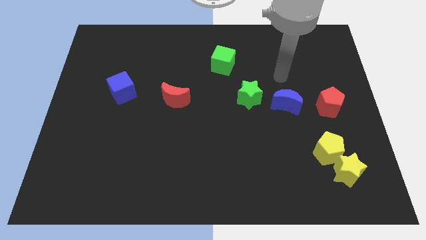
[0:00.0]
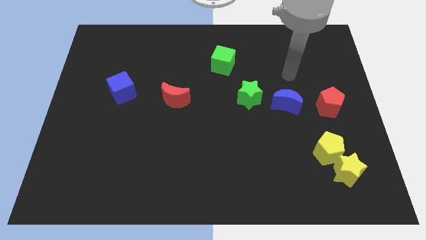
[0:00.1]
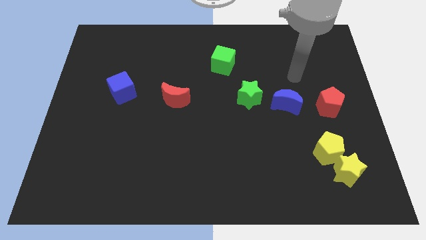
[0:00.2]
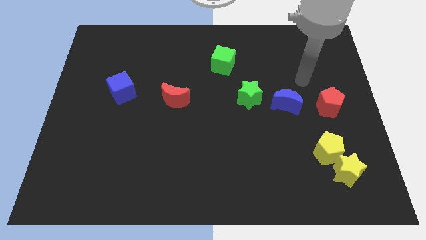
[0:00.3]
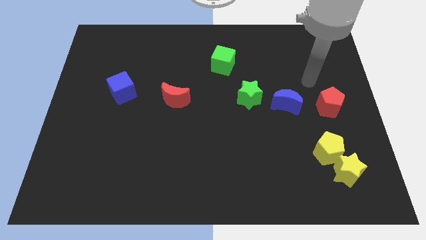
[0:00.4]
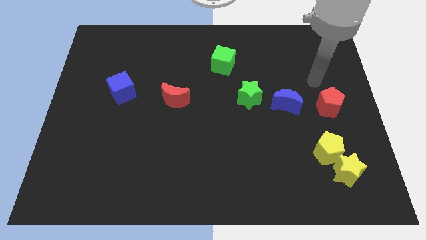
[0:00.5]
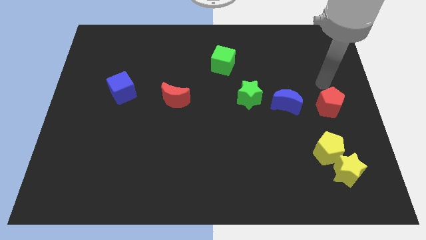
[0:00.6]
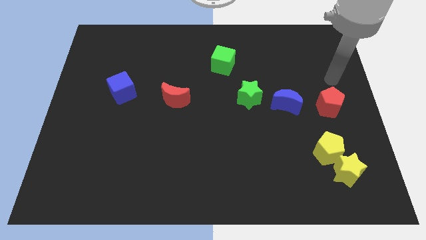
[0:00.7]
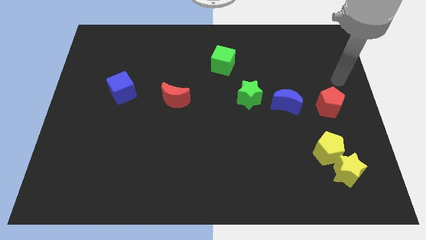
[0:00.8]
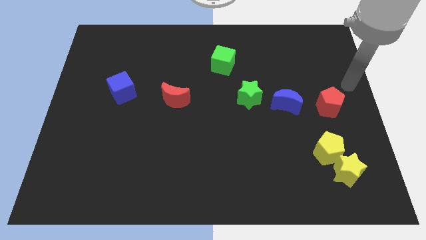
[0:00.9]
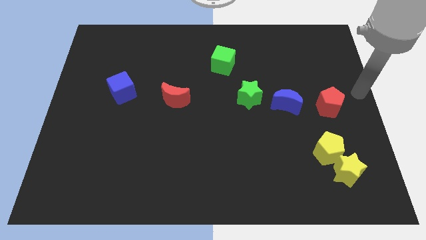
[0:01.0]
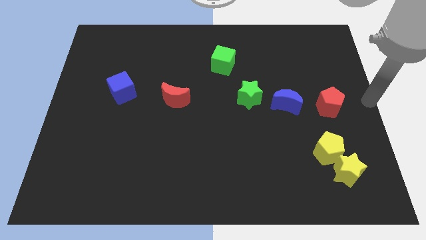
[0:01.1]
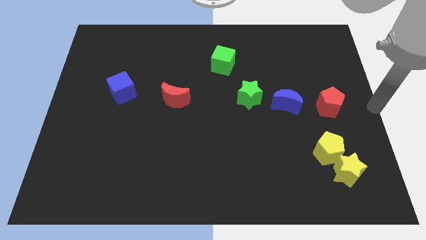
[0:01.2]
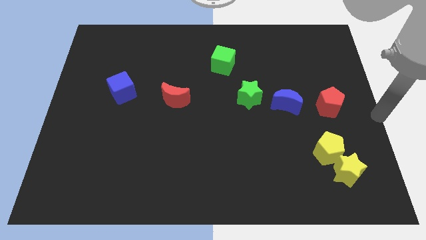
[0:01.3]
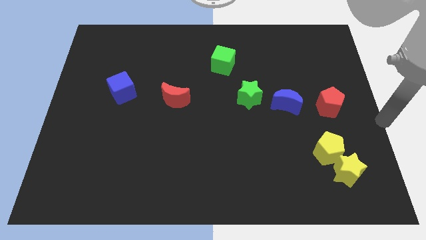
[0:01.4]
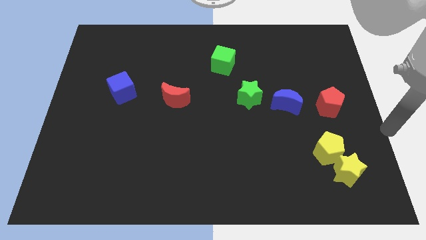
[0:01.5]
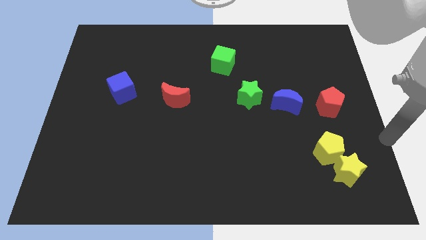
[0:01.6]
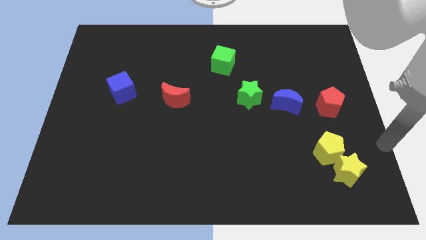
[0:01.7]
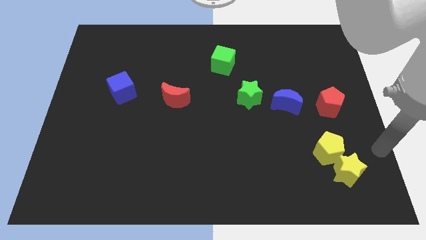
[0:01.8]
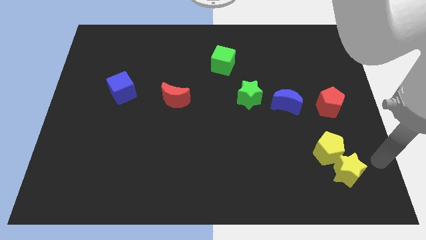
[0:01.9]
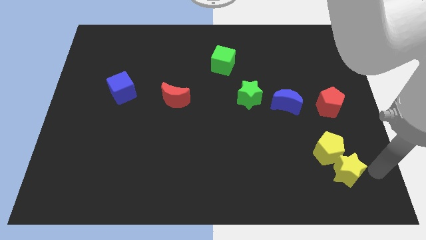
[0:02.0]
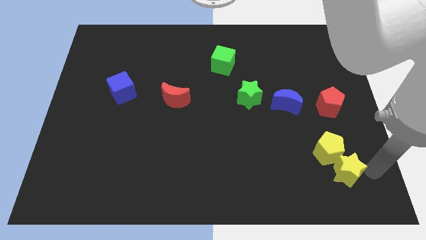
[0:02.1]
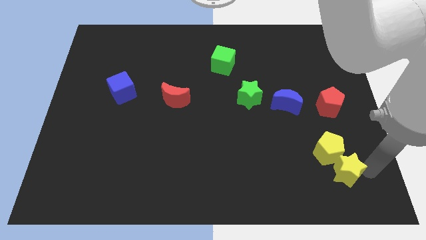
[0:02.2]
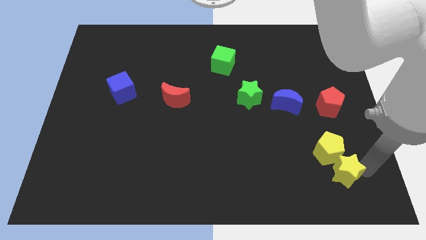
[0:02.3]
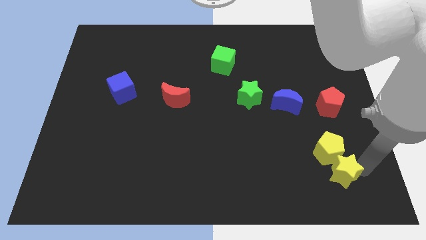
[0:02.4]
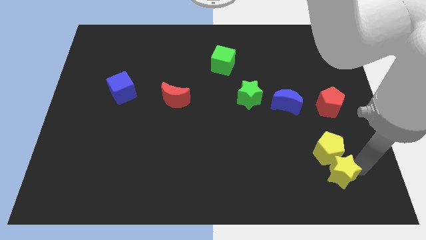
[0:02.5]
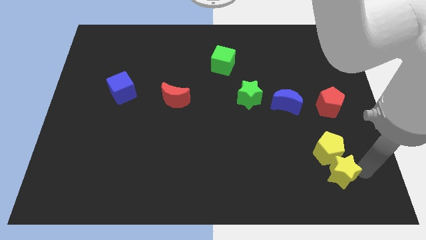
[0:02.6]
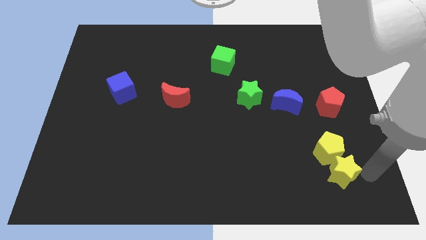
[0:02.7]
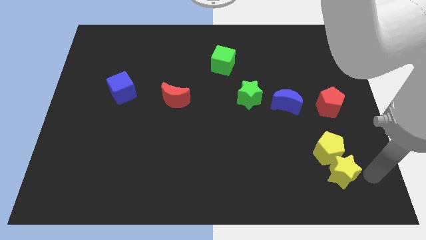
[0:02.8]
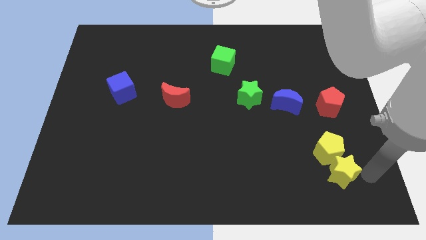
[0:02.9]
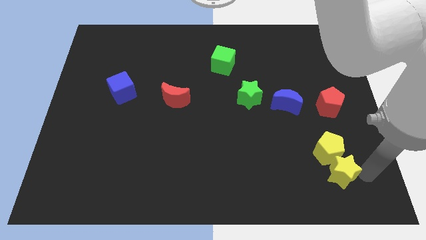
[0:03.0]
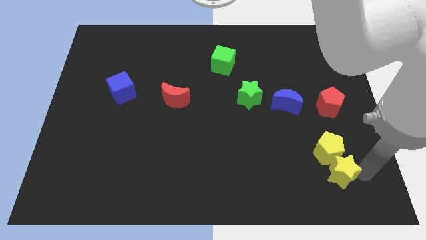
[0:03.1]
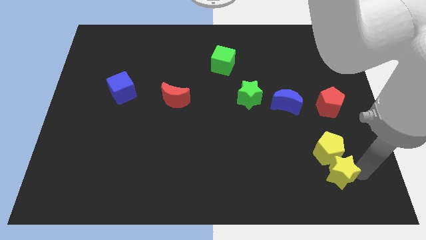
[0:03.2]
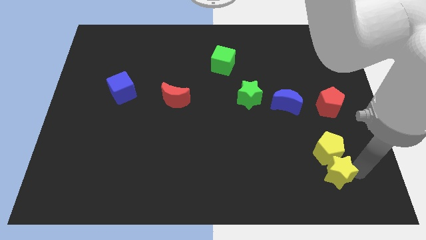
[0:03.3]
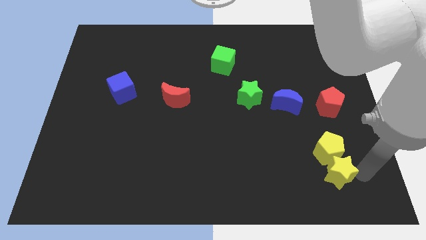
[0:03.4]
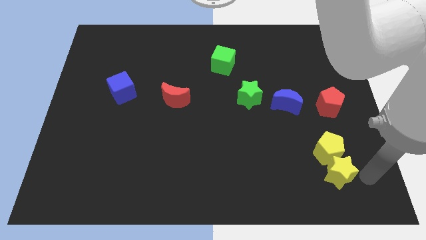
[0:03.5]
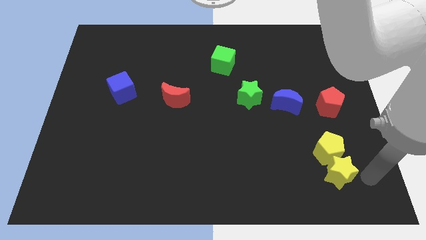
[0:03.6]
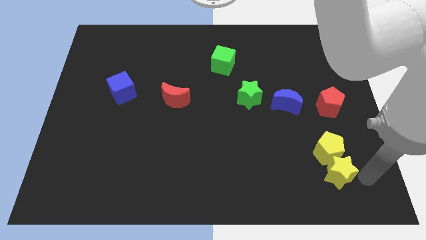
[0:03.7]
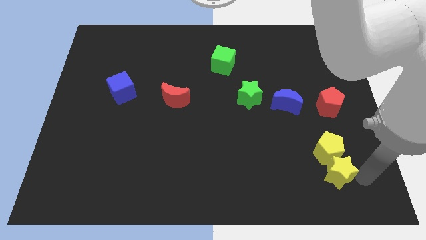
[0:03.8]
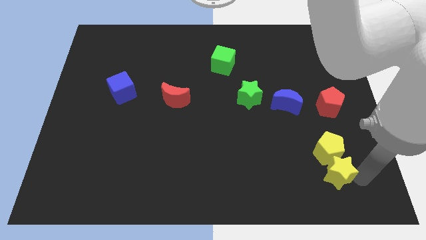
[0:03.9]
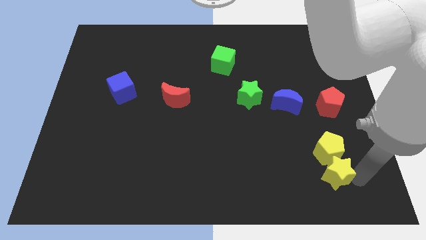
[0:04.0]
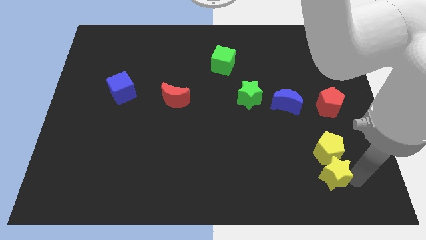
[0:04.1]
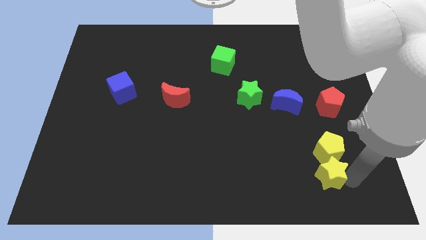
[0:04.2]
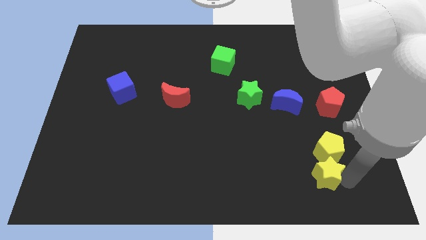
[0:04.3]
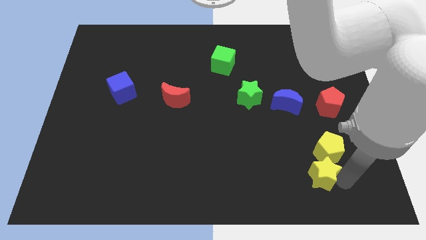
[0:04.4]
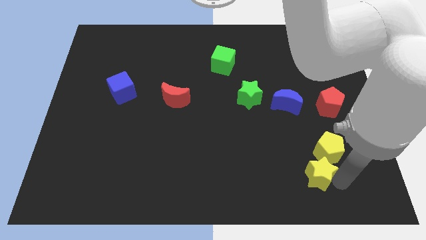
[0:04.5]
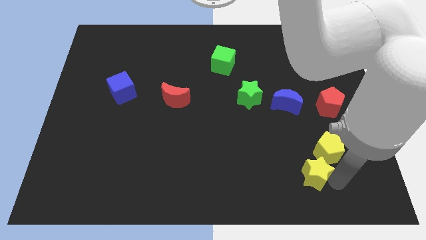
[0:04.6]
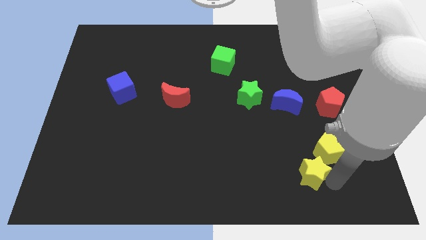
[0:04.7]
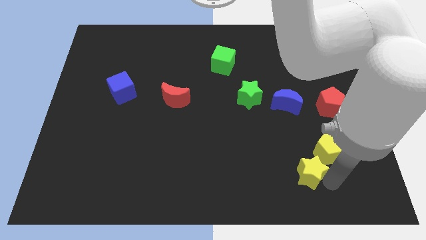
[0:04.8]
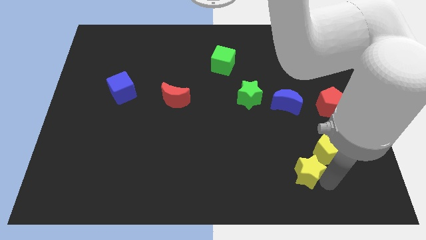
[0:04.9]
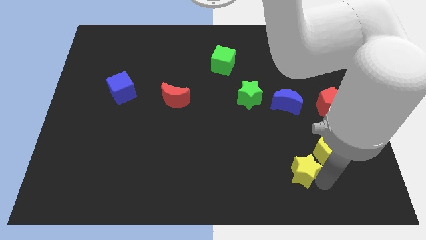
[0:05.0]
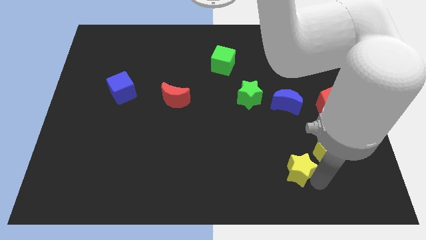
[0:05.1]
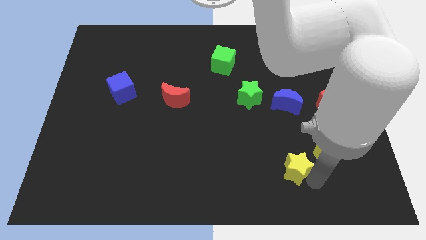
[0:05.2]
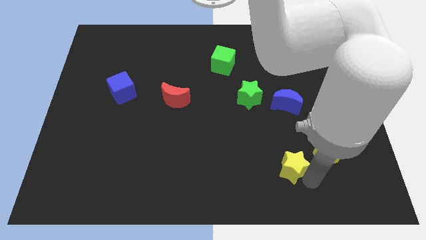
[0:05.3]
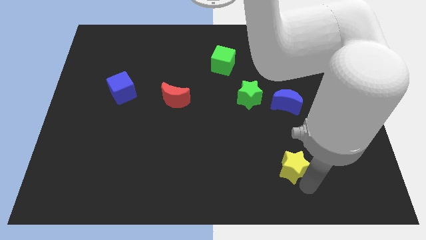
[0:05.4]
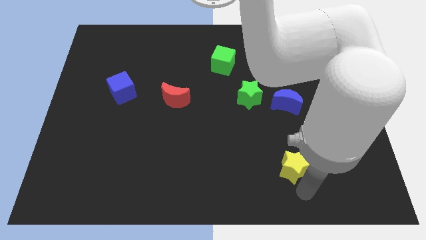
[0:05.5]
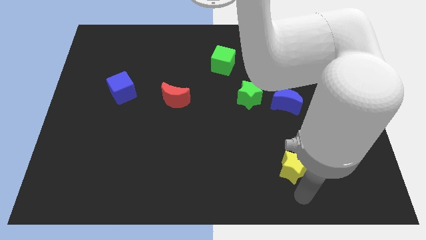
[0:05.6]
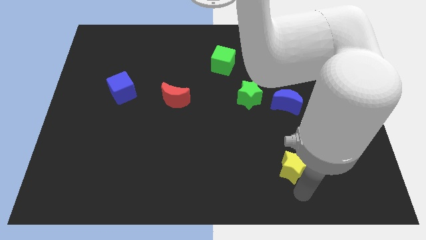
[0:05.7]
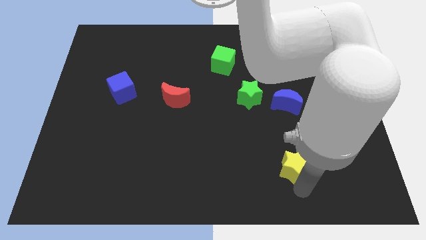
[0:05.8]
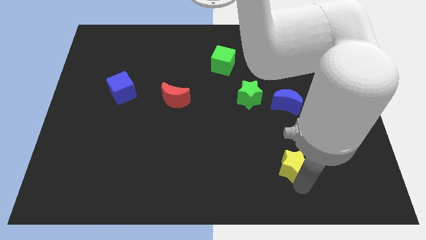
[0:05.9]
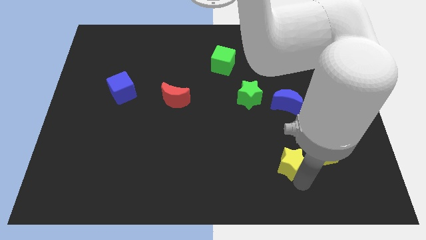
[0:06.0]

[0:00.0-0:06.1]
move the yellow star slightly upwards and left diagonally

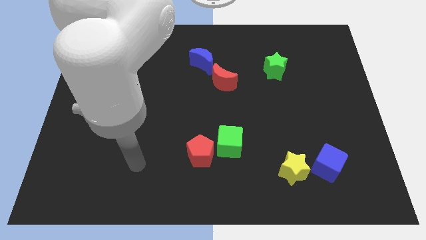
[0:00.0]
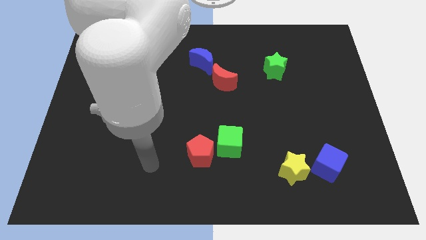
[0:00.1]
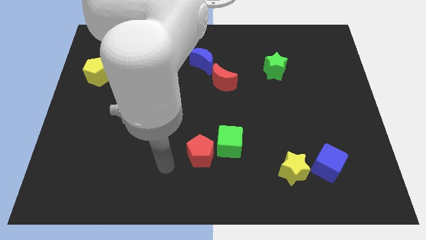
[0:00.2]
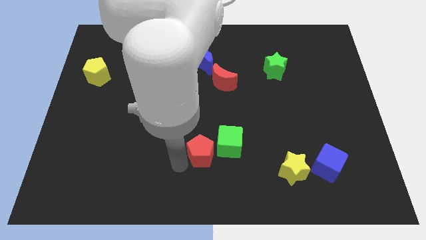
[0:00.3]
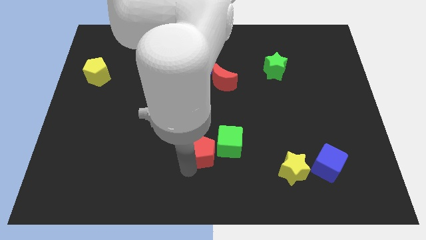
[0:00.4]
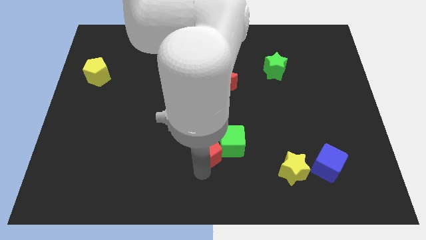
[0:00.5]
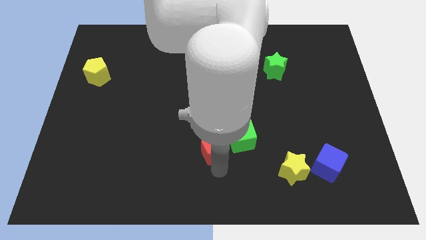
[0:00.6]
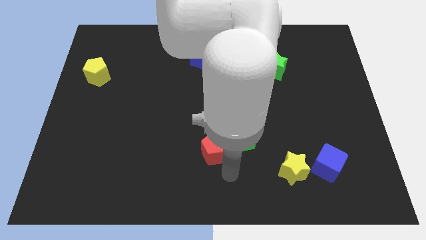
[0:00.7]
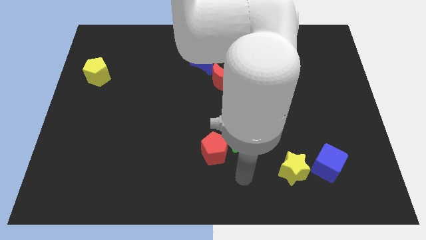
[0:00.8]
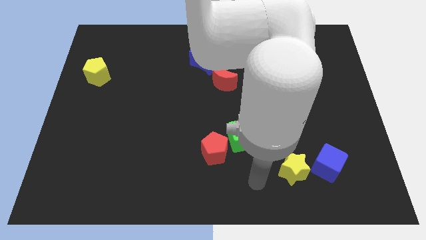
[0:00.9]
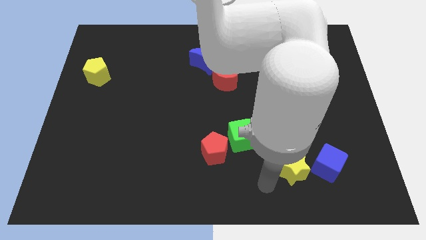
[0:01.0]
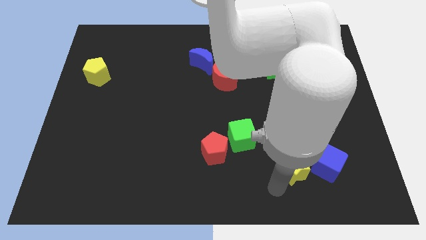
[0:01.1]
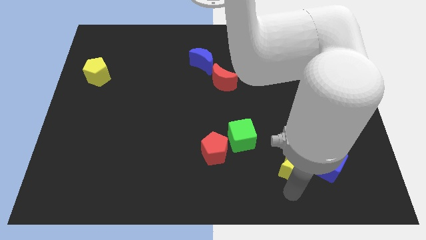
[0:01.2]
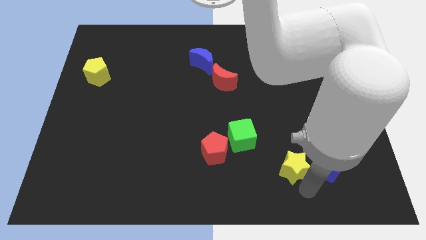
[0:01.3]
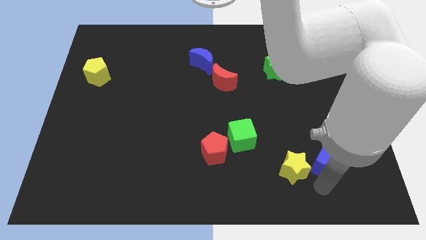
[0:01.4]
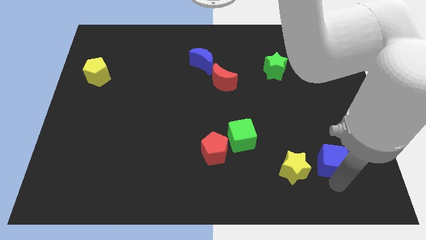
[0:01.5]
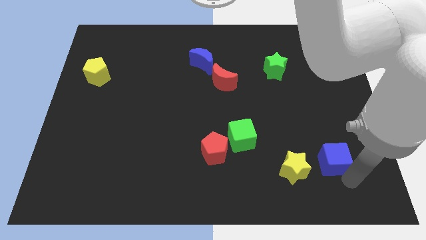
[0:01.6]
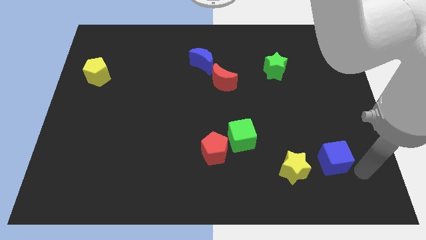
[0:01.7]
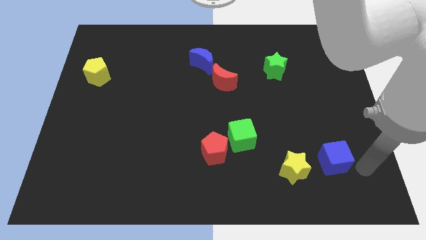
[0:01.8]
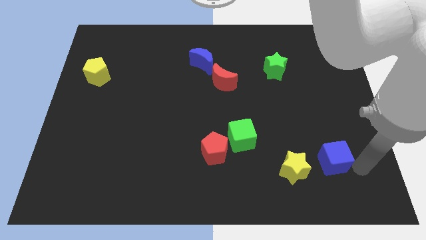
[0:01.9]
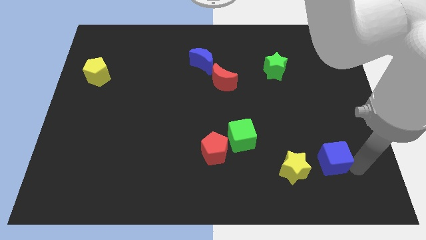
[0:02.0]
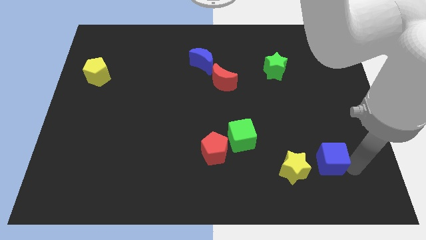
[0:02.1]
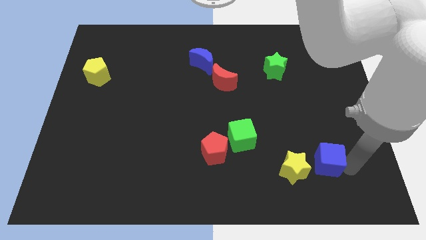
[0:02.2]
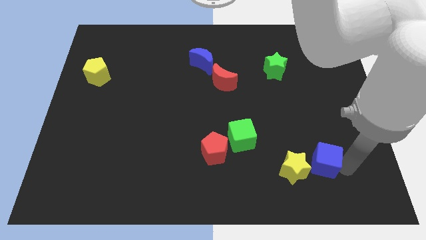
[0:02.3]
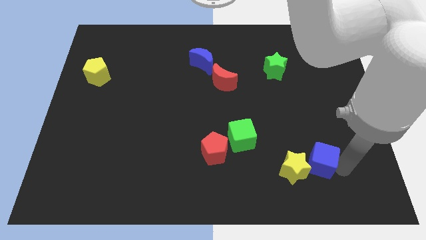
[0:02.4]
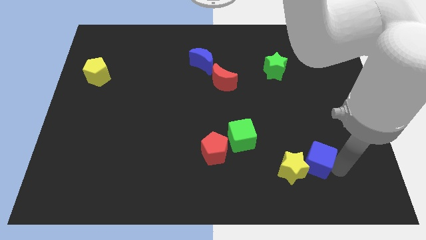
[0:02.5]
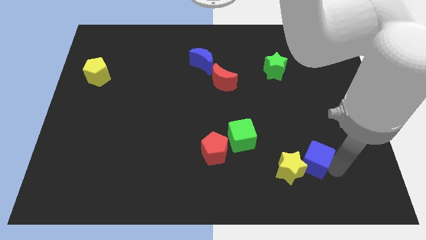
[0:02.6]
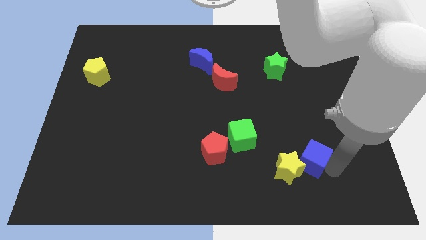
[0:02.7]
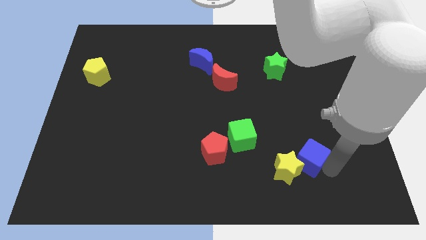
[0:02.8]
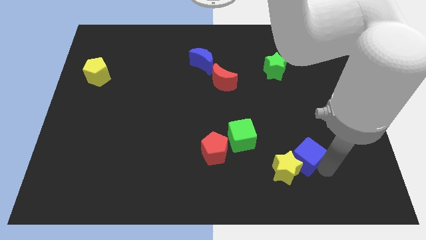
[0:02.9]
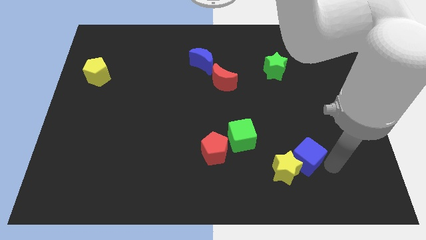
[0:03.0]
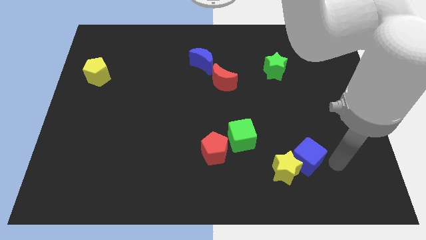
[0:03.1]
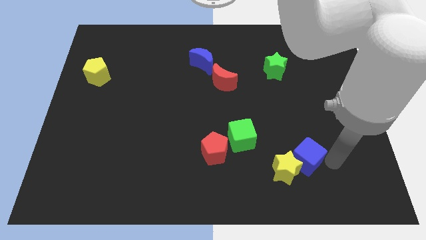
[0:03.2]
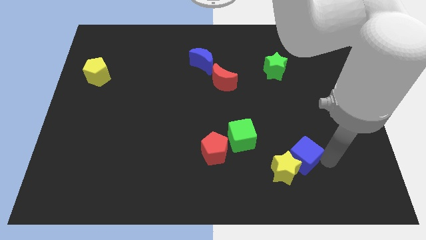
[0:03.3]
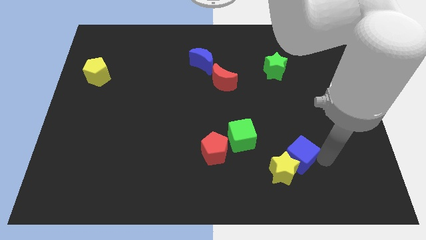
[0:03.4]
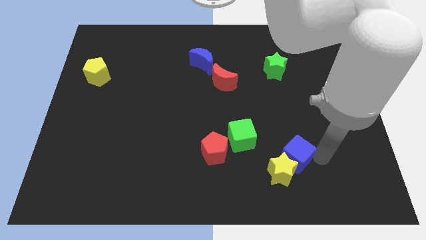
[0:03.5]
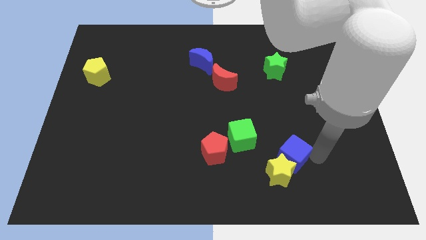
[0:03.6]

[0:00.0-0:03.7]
slide the blue cube a bit left
